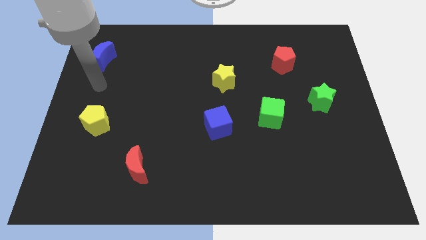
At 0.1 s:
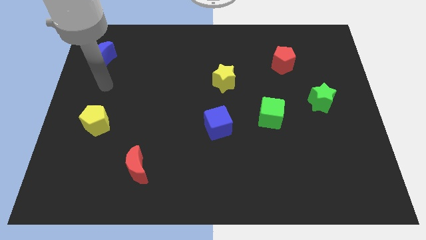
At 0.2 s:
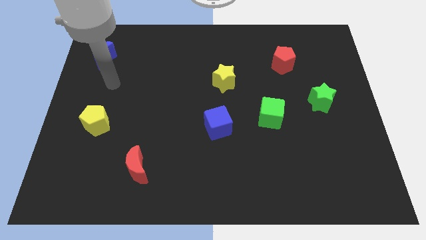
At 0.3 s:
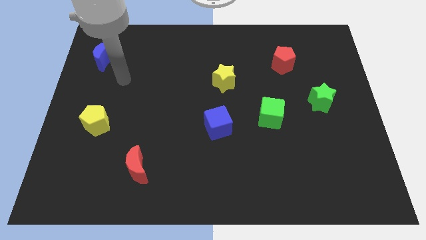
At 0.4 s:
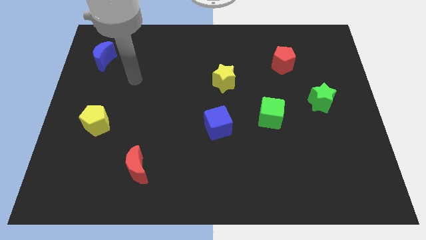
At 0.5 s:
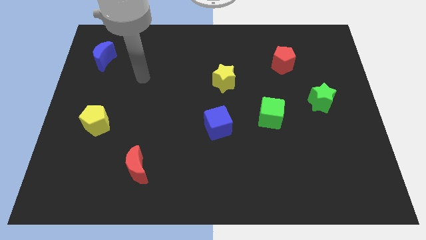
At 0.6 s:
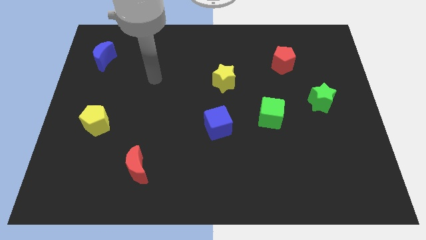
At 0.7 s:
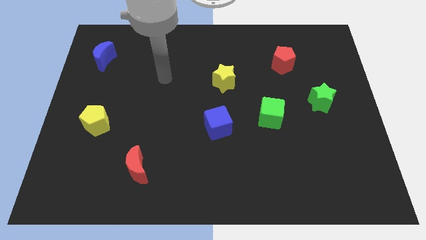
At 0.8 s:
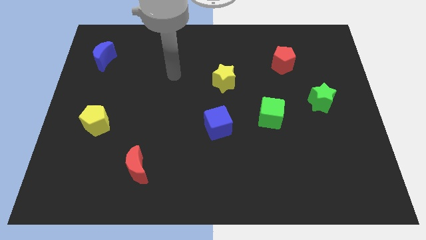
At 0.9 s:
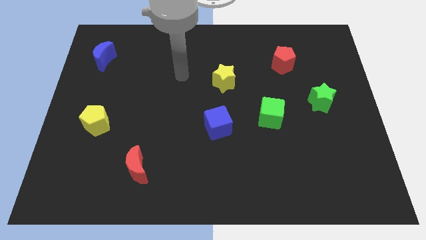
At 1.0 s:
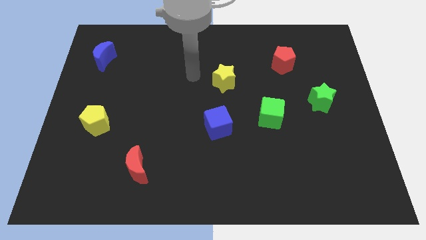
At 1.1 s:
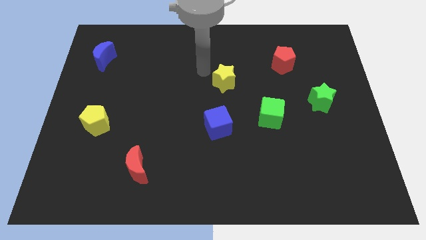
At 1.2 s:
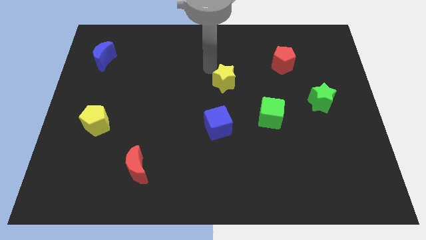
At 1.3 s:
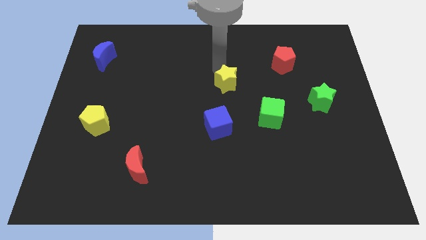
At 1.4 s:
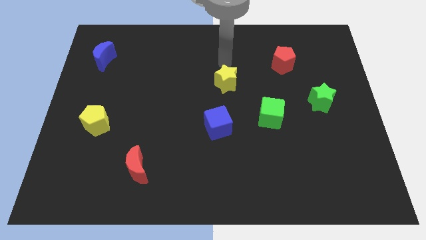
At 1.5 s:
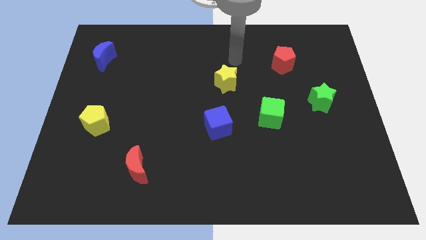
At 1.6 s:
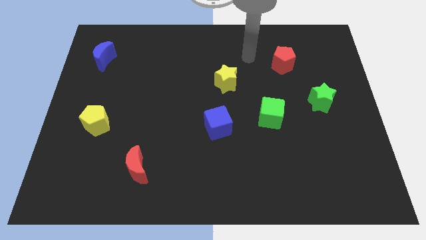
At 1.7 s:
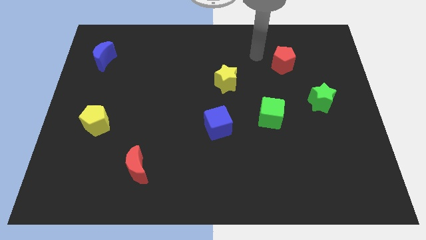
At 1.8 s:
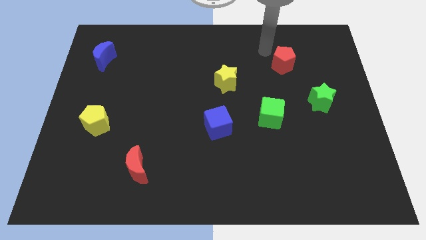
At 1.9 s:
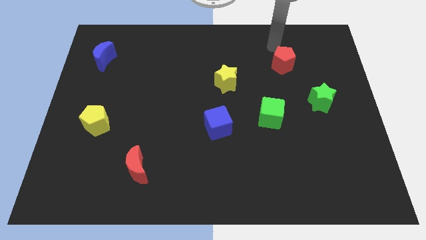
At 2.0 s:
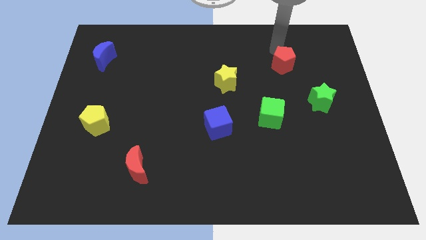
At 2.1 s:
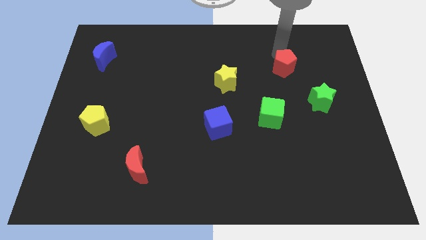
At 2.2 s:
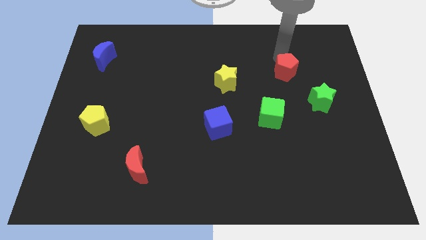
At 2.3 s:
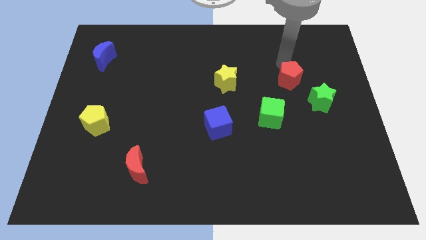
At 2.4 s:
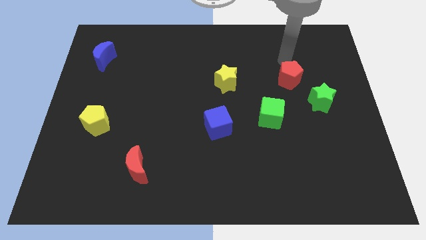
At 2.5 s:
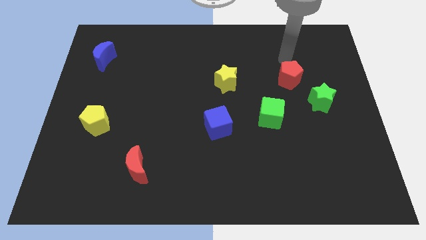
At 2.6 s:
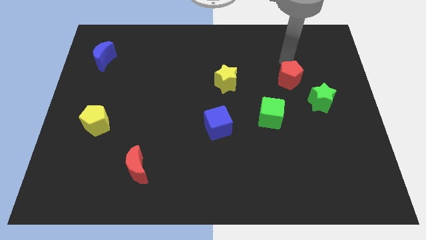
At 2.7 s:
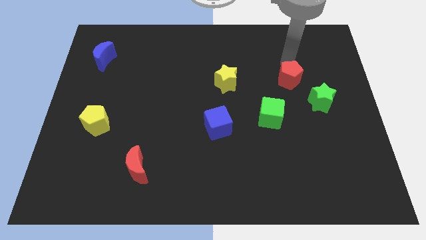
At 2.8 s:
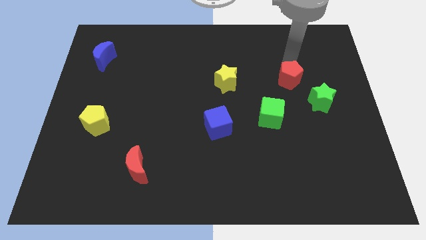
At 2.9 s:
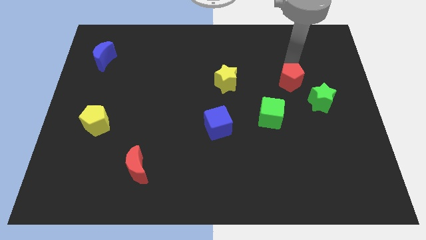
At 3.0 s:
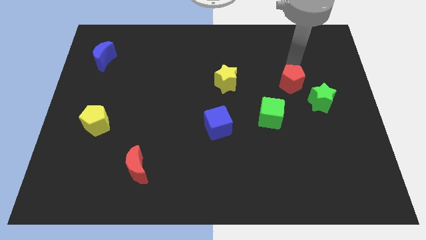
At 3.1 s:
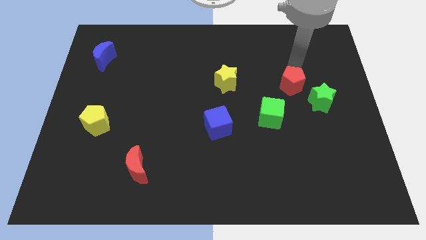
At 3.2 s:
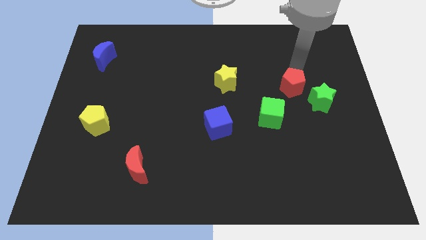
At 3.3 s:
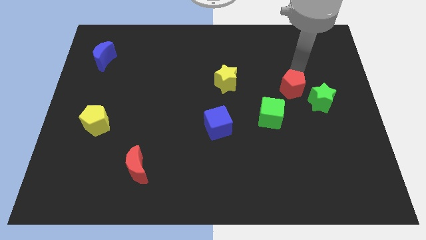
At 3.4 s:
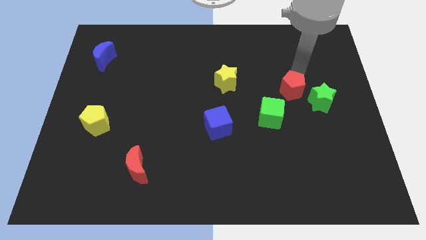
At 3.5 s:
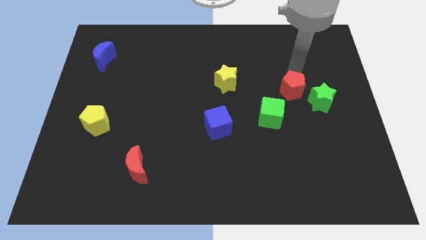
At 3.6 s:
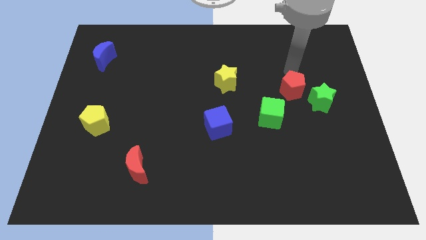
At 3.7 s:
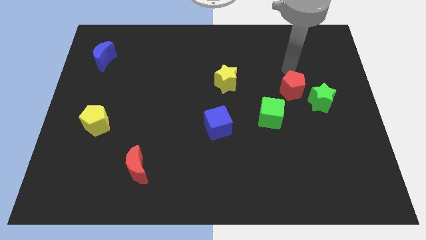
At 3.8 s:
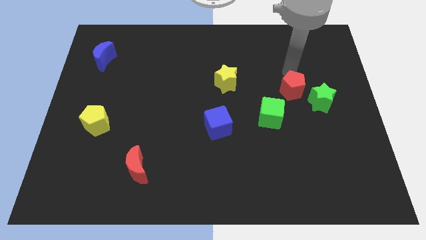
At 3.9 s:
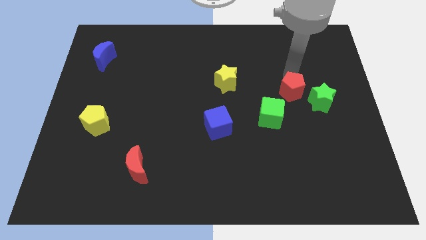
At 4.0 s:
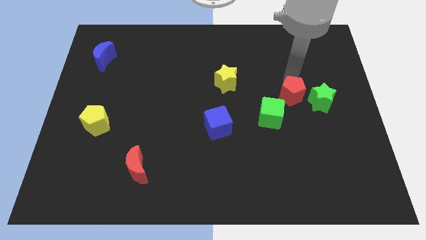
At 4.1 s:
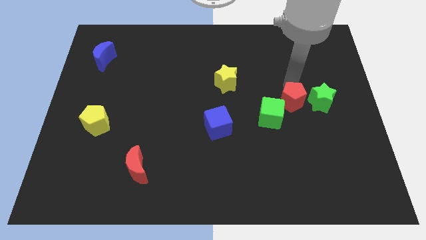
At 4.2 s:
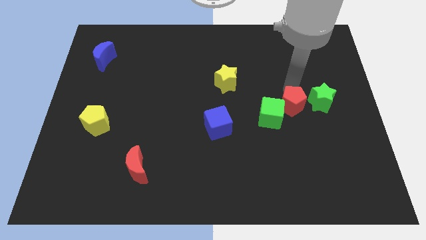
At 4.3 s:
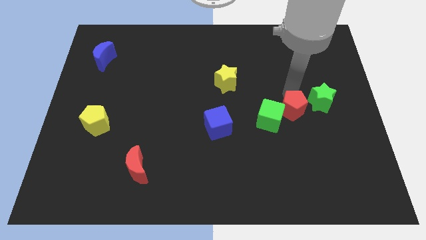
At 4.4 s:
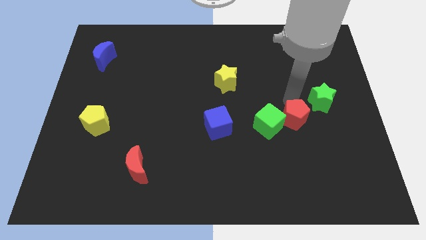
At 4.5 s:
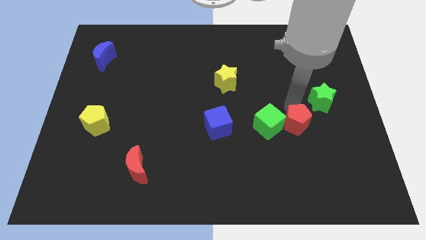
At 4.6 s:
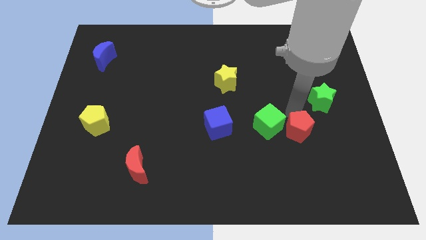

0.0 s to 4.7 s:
move the red pentagon down

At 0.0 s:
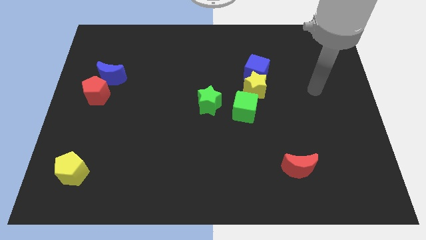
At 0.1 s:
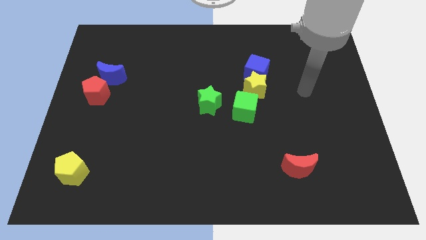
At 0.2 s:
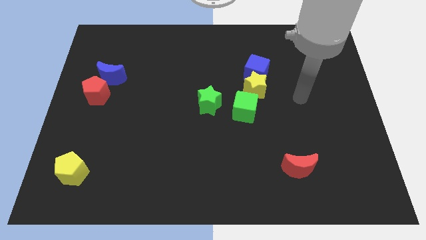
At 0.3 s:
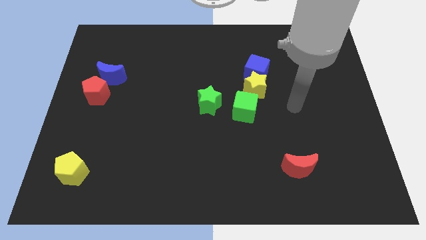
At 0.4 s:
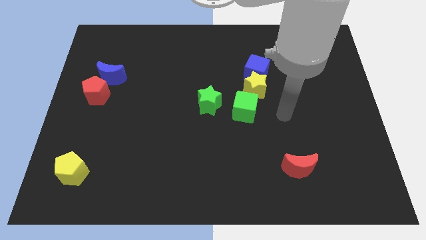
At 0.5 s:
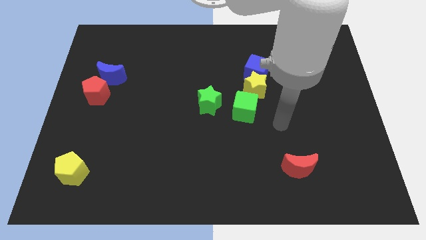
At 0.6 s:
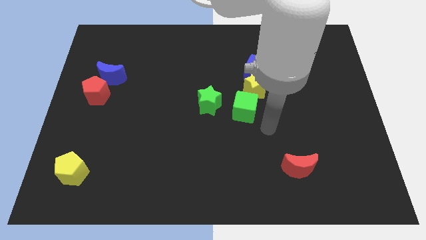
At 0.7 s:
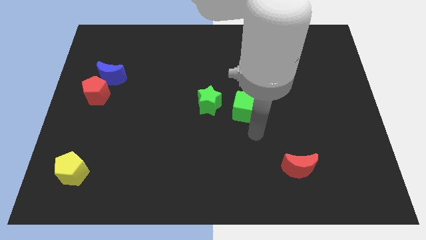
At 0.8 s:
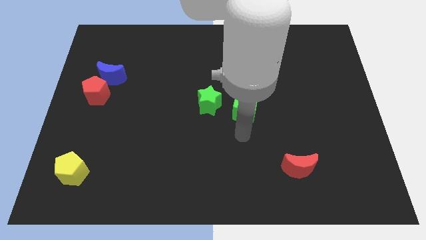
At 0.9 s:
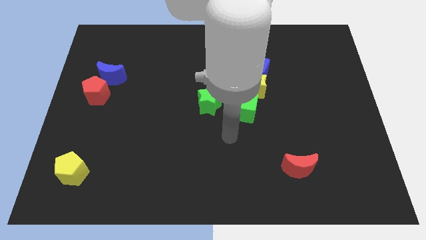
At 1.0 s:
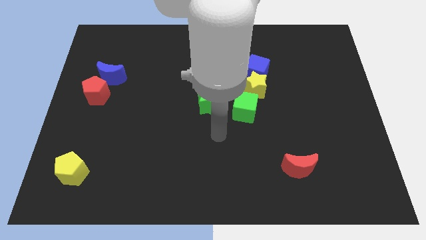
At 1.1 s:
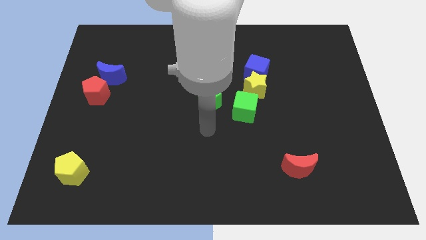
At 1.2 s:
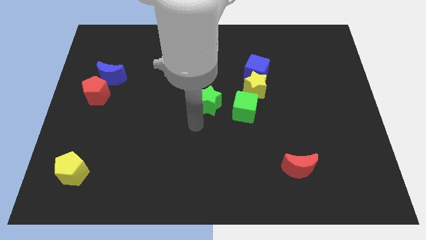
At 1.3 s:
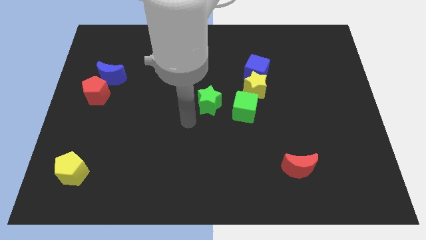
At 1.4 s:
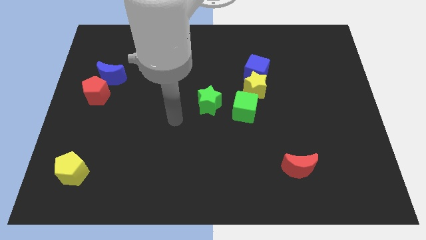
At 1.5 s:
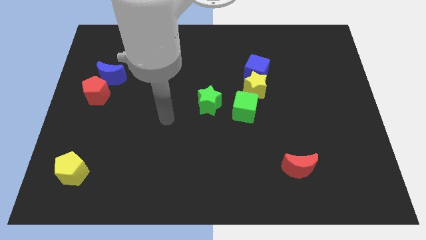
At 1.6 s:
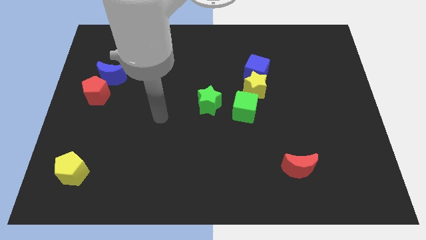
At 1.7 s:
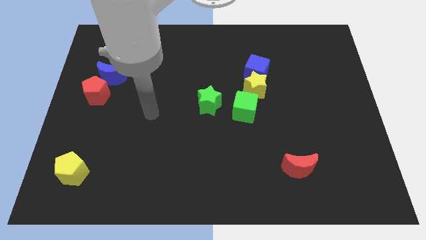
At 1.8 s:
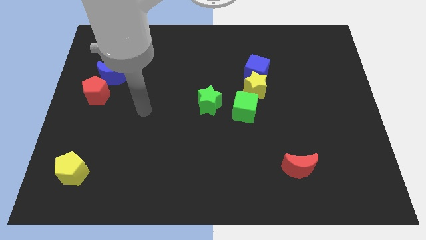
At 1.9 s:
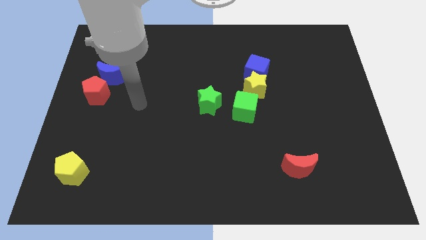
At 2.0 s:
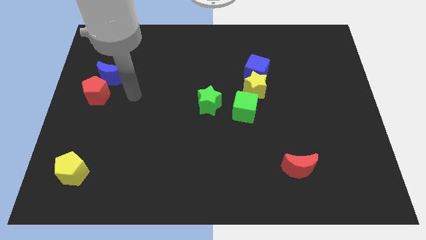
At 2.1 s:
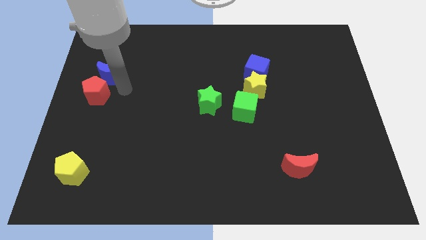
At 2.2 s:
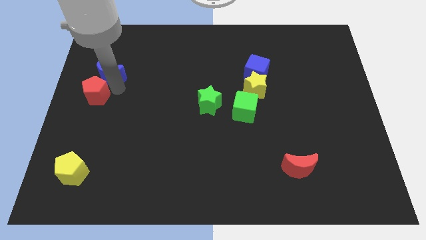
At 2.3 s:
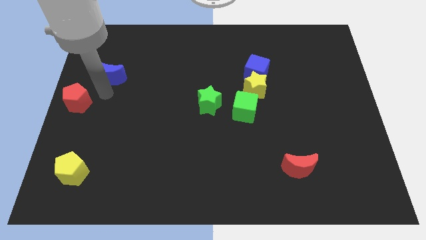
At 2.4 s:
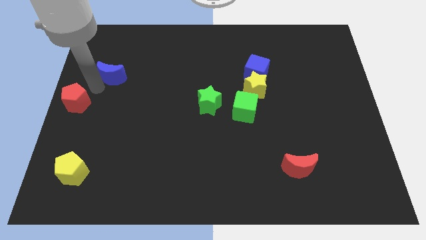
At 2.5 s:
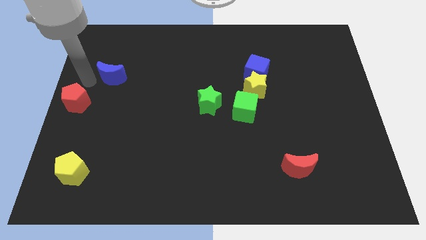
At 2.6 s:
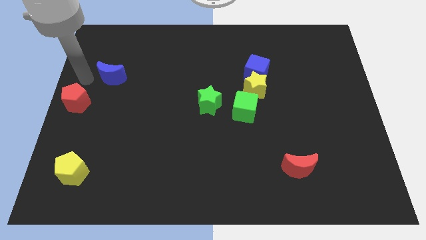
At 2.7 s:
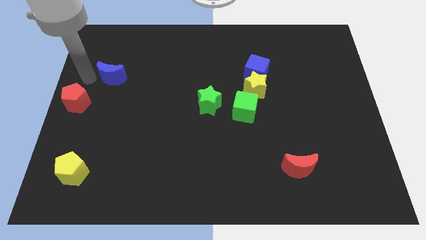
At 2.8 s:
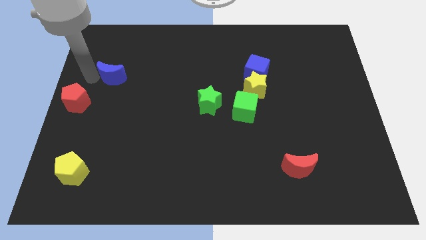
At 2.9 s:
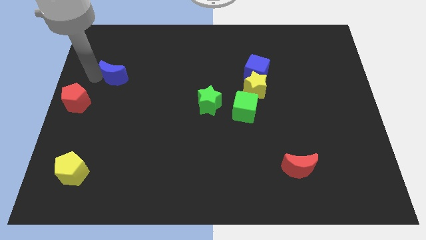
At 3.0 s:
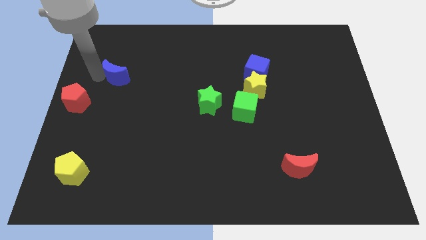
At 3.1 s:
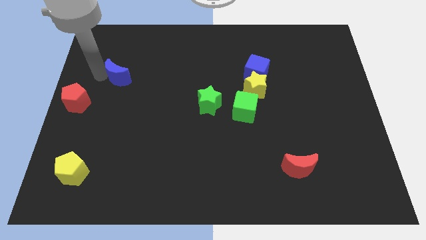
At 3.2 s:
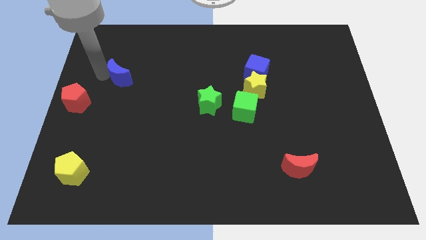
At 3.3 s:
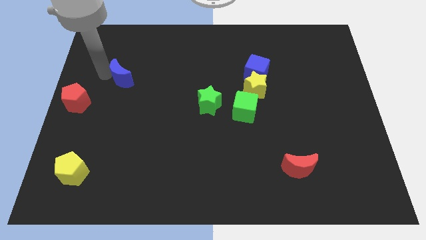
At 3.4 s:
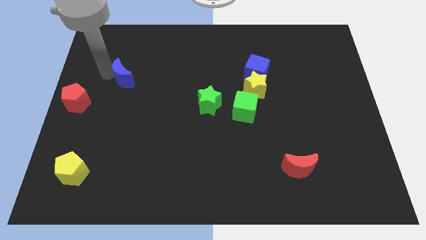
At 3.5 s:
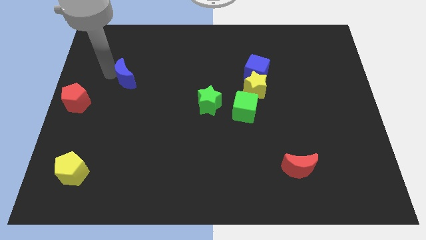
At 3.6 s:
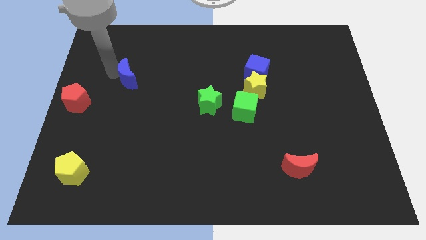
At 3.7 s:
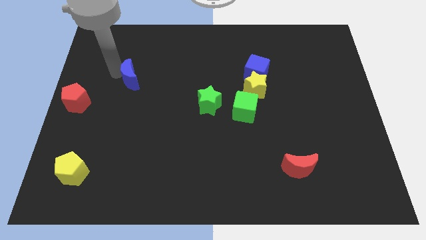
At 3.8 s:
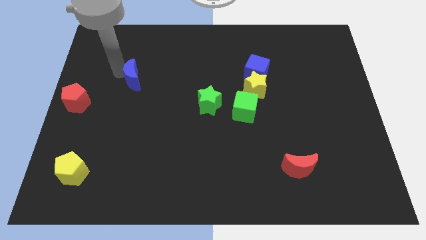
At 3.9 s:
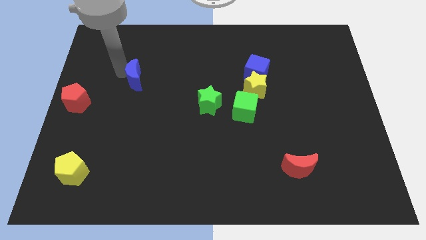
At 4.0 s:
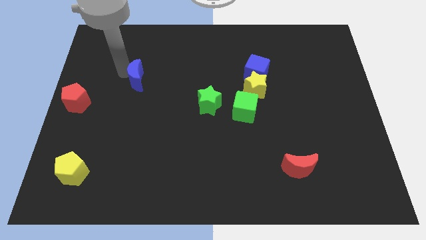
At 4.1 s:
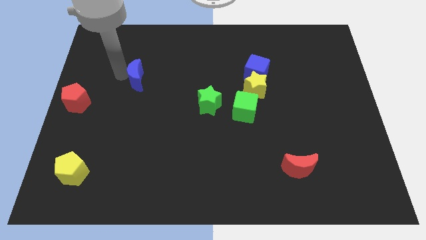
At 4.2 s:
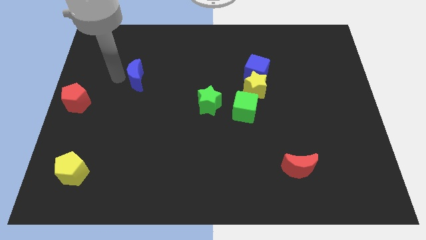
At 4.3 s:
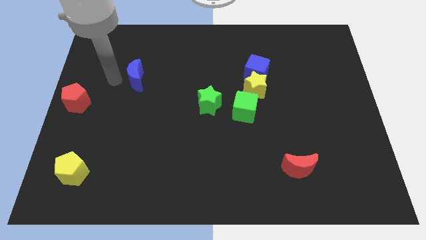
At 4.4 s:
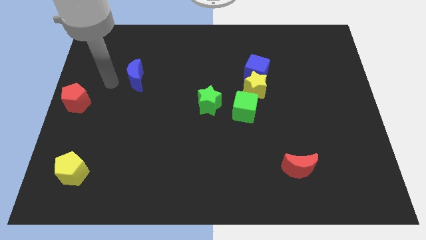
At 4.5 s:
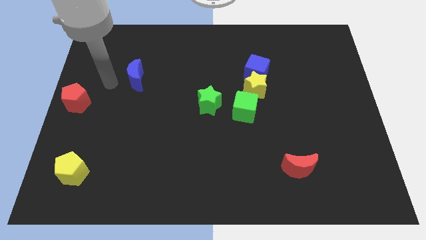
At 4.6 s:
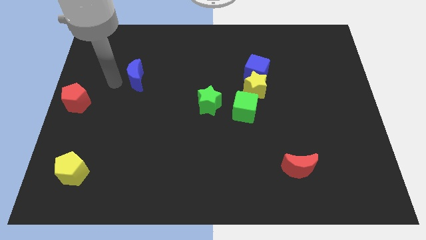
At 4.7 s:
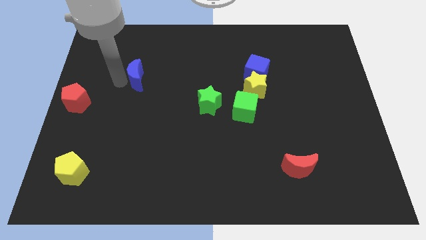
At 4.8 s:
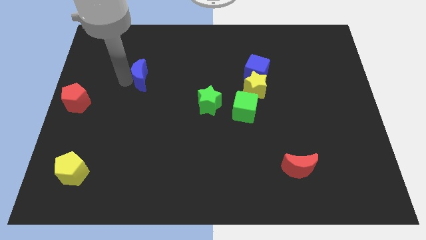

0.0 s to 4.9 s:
move the blue moon a little bit to the right
